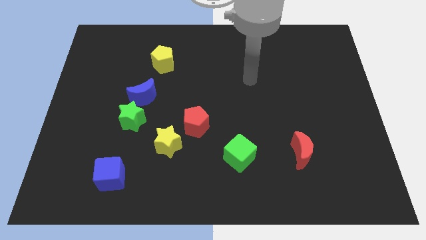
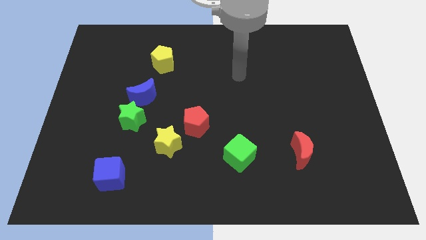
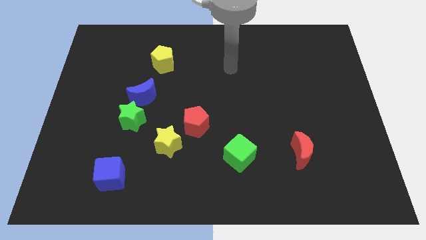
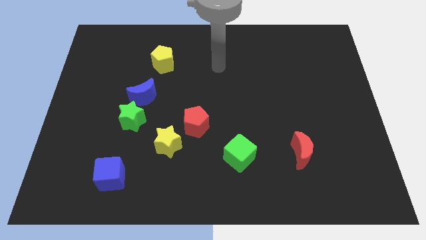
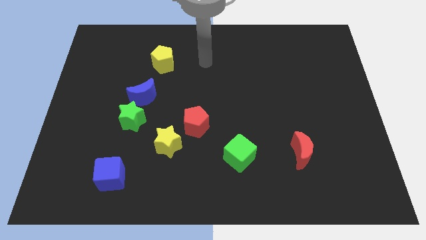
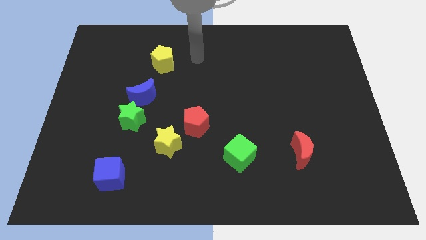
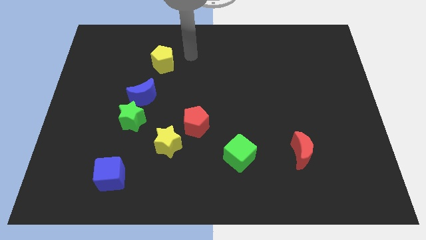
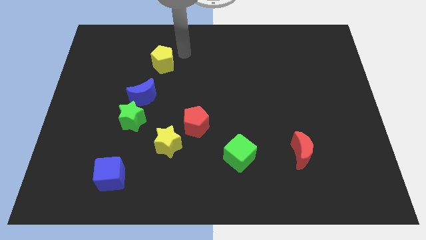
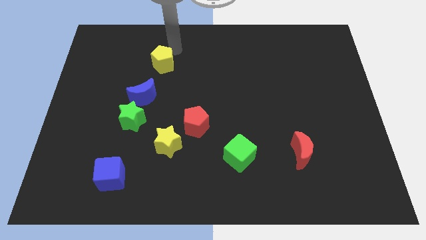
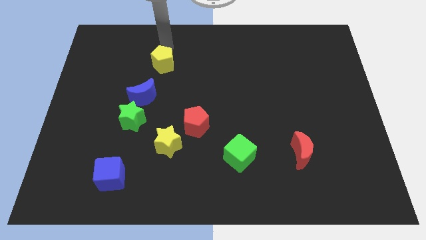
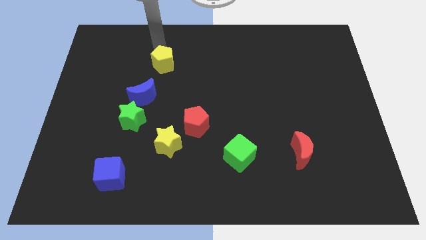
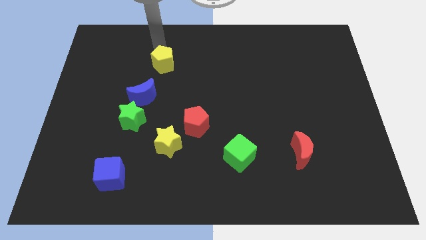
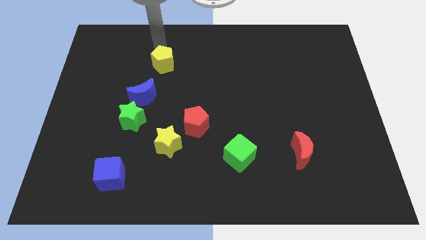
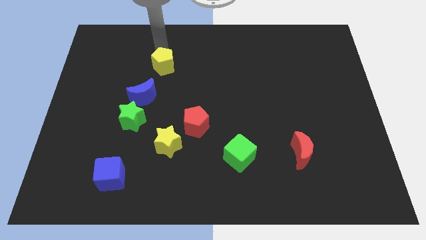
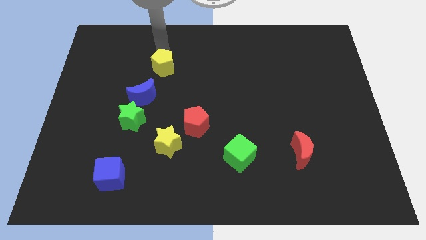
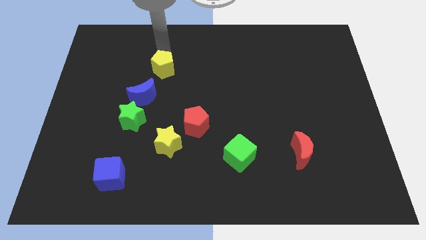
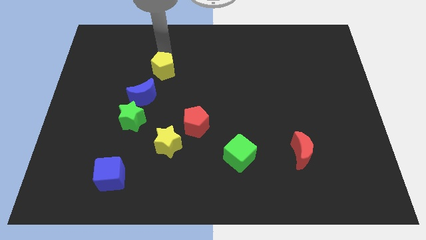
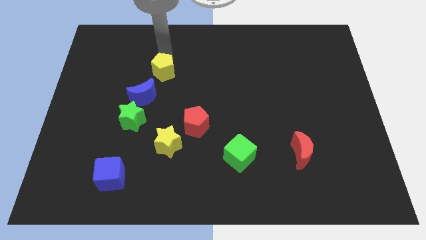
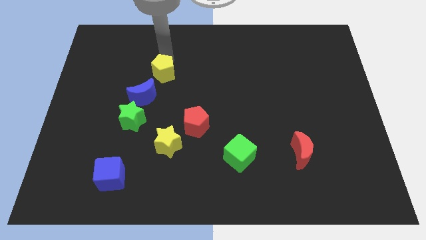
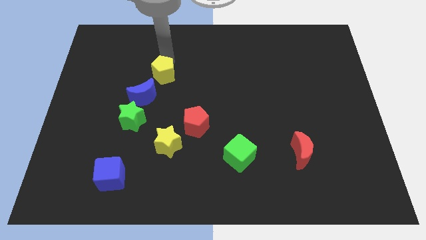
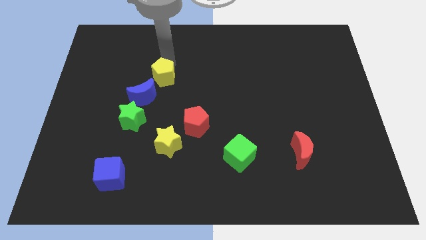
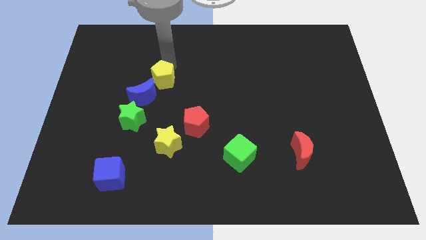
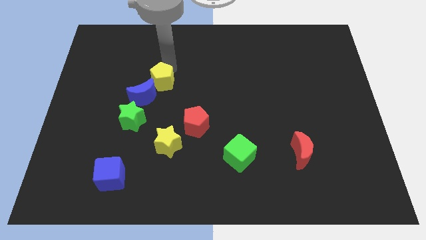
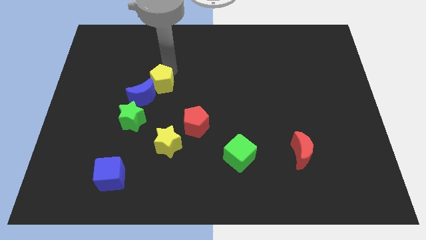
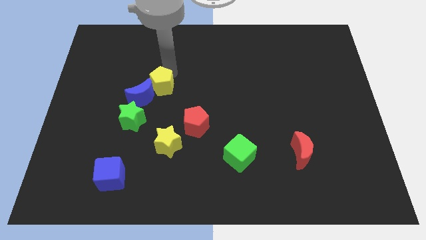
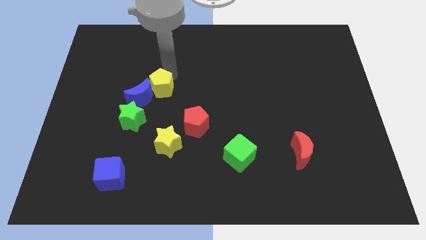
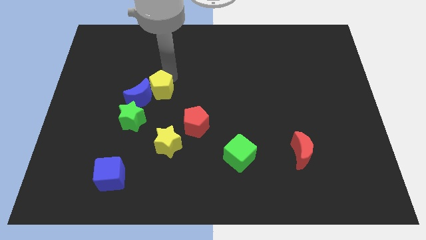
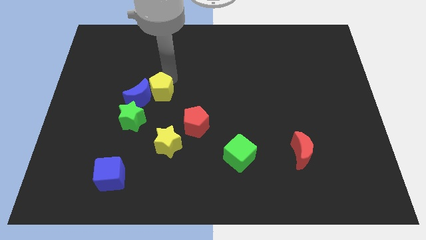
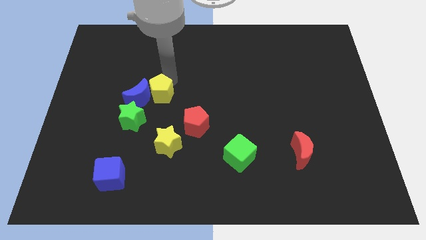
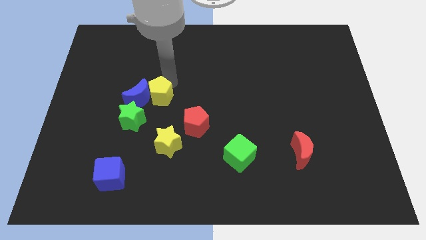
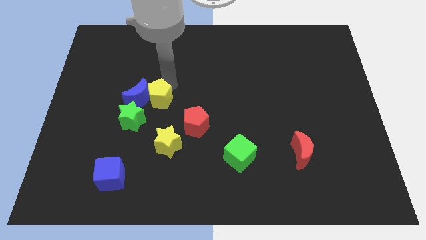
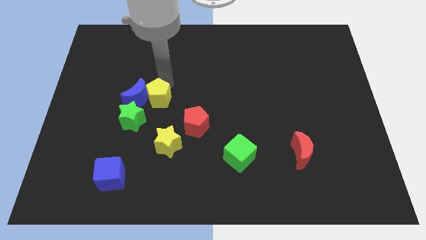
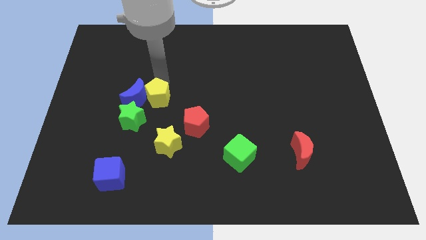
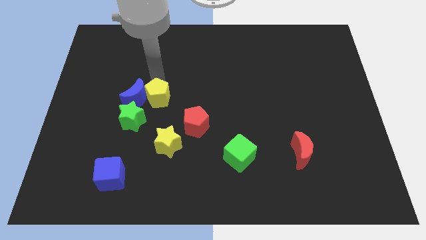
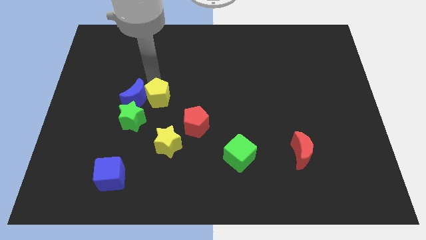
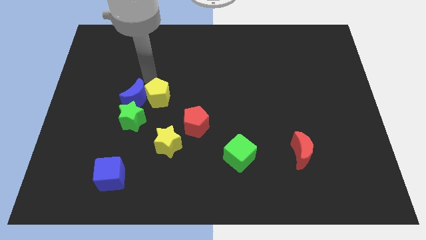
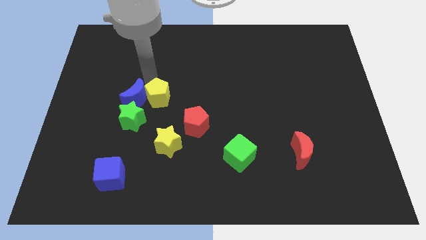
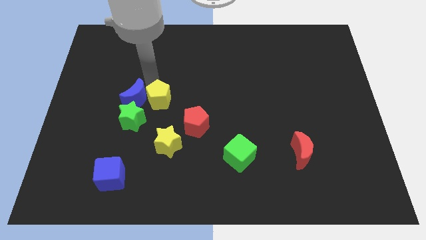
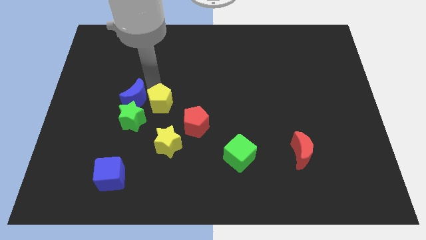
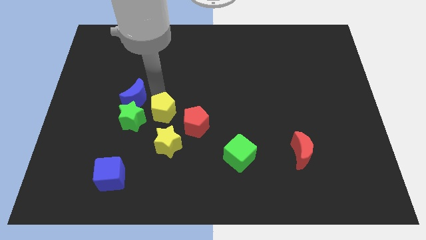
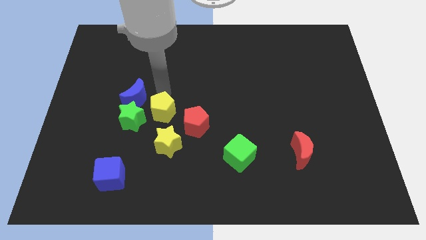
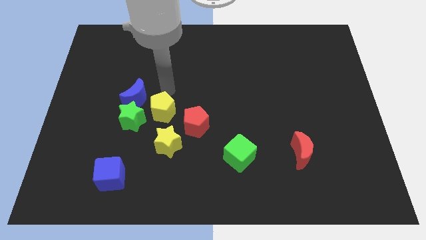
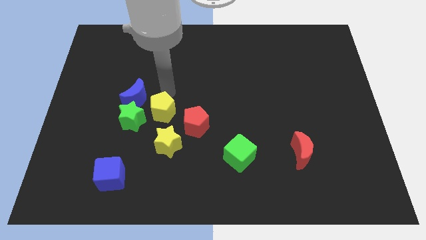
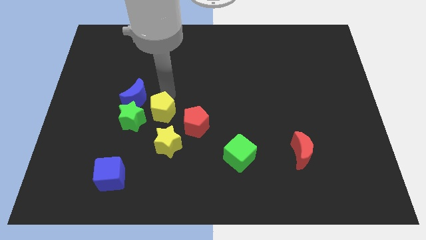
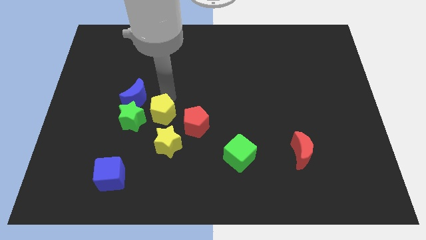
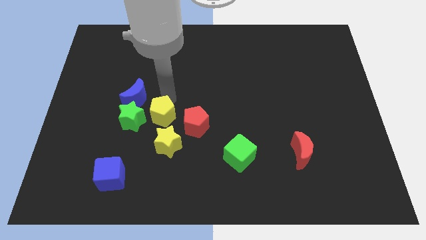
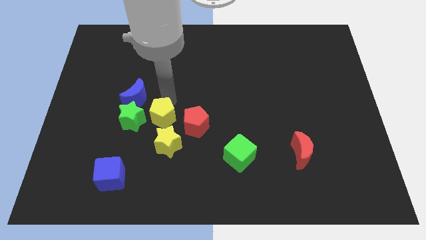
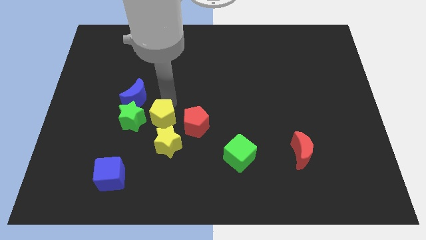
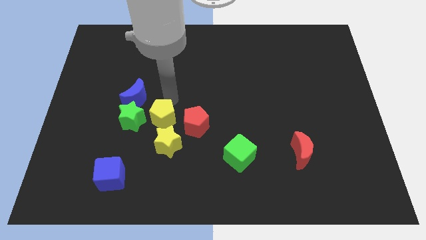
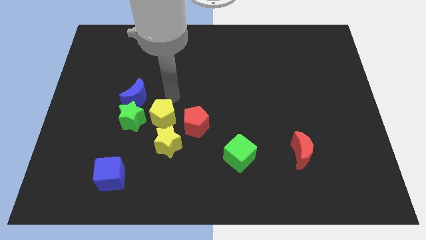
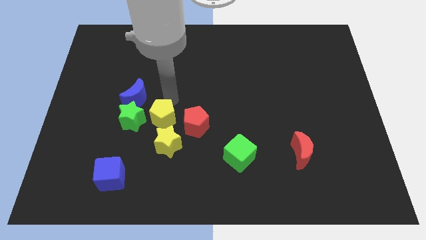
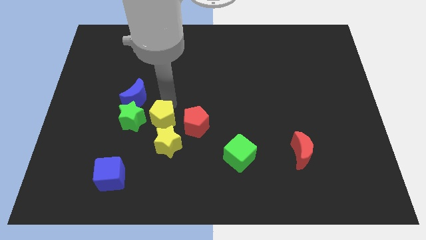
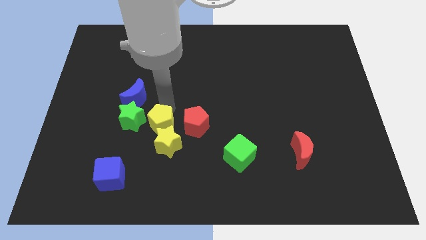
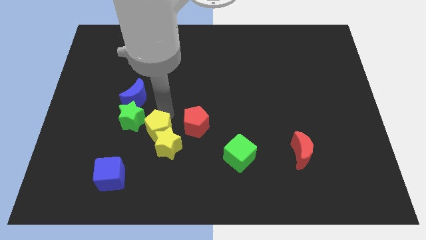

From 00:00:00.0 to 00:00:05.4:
push the yellow pentagon downwards

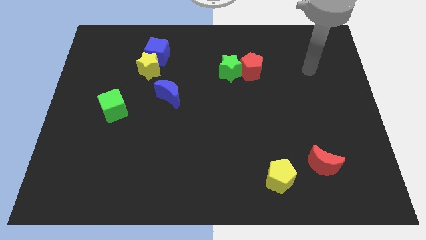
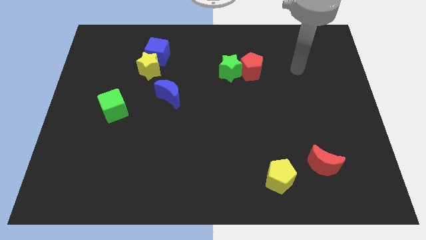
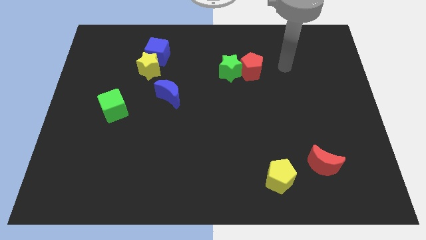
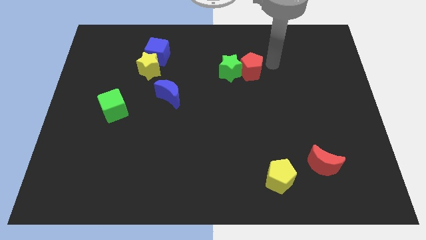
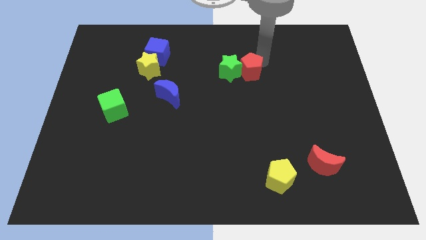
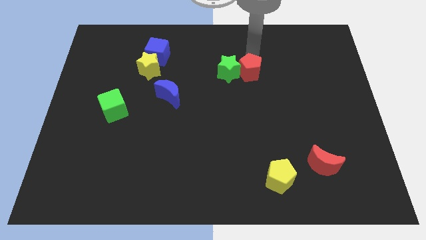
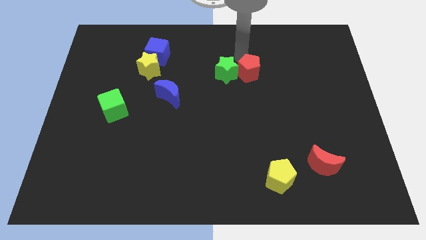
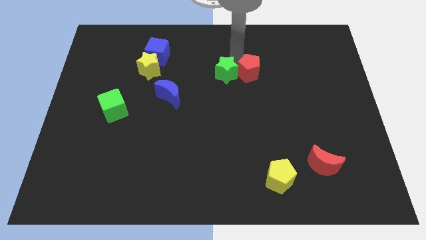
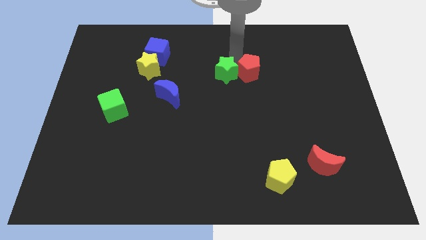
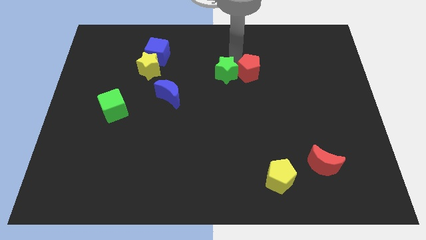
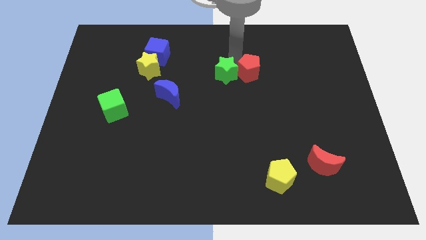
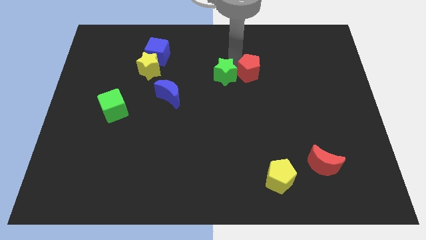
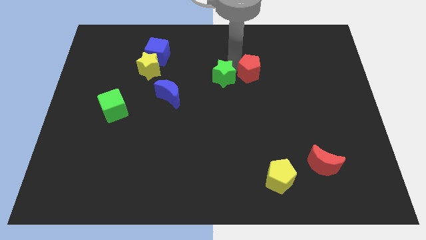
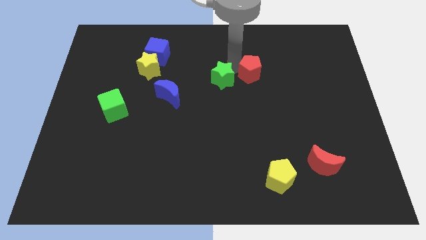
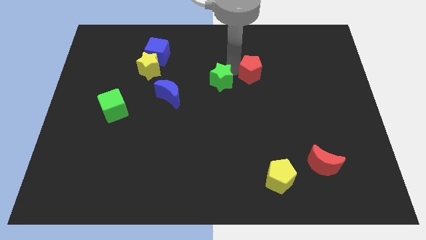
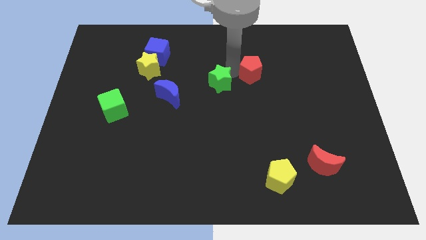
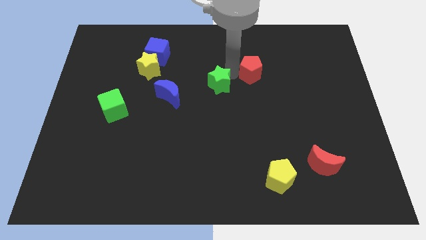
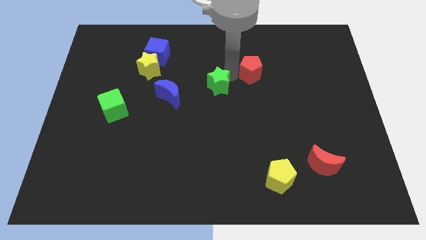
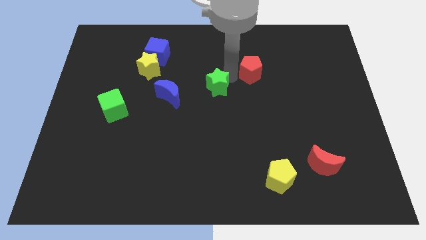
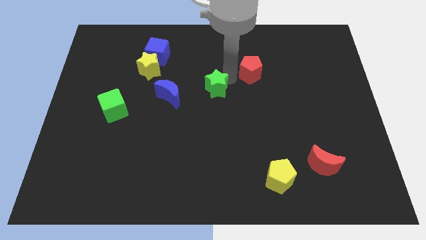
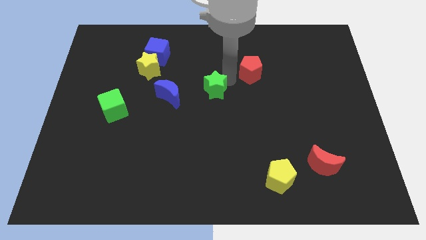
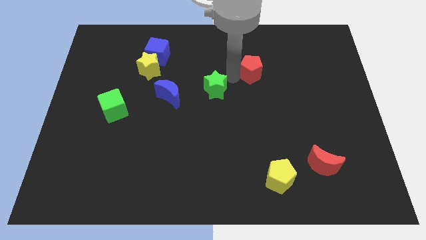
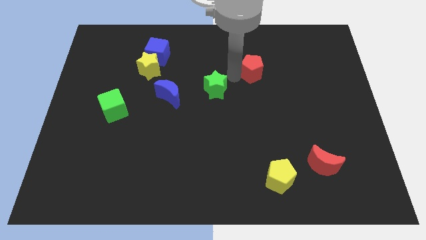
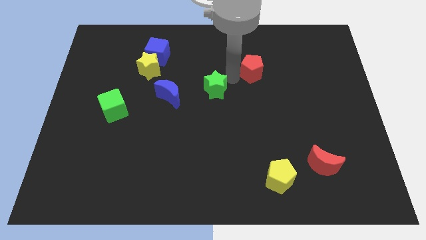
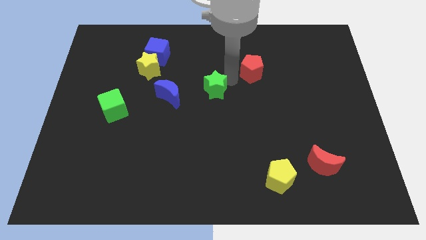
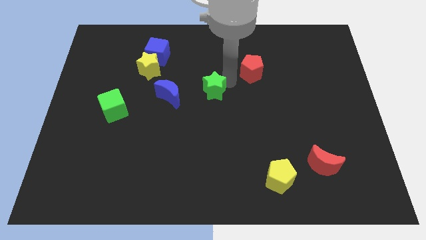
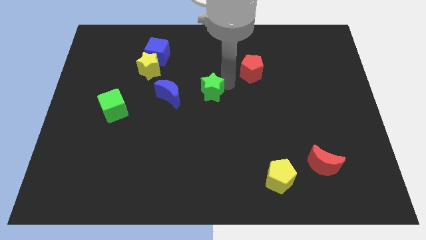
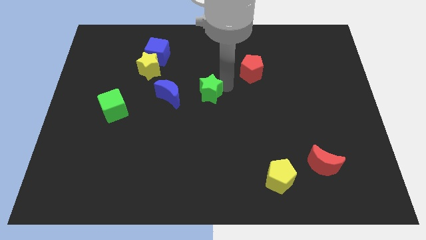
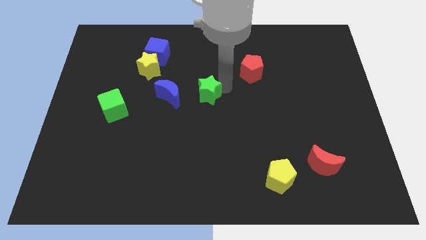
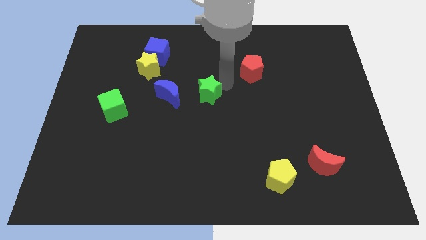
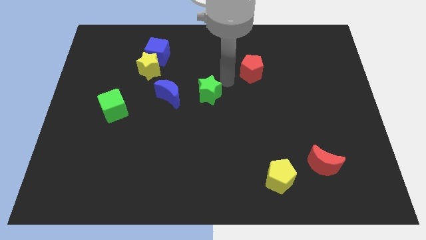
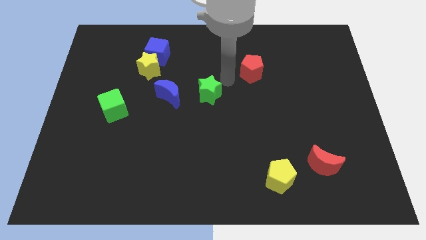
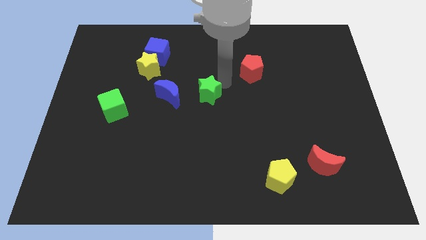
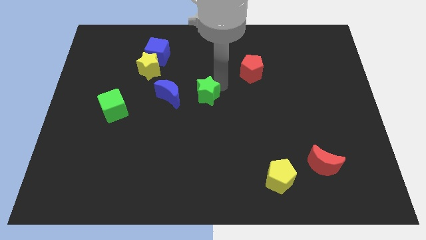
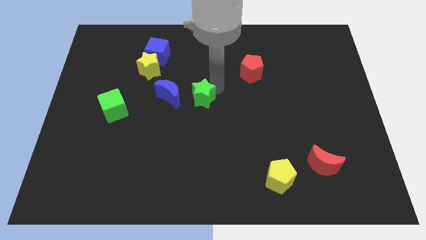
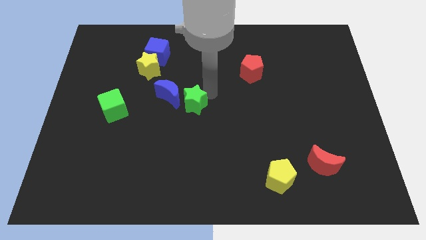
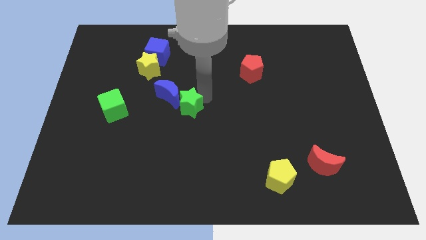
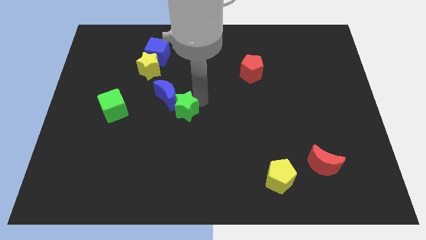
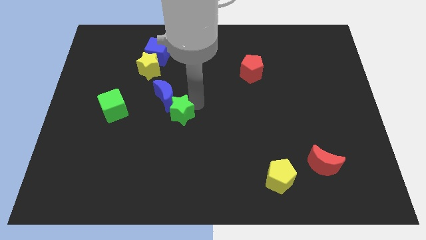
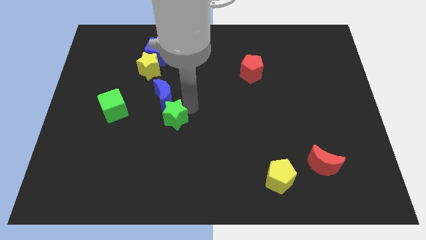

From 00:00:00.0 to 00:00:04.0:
push the green star down and then left
